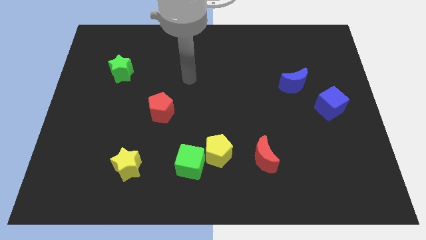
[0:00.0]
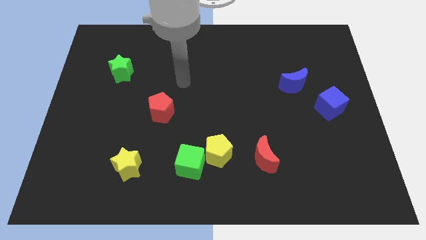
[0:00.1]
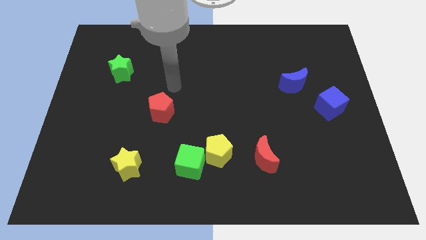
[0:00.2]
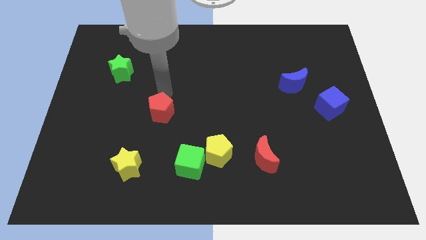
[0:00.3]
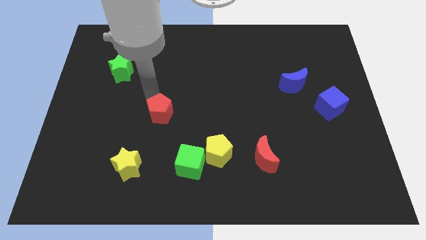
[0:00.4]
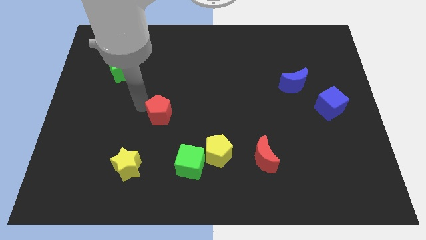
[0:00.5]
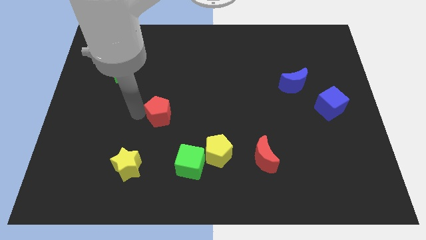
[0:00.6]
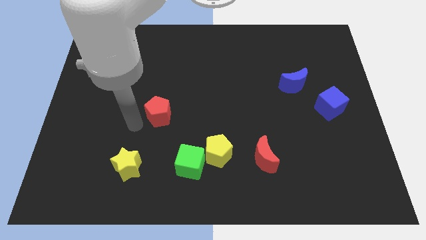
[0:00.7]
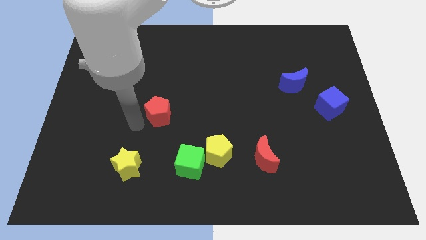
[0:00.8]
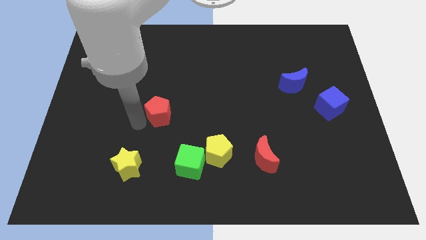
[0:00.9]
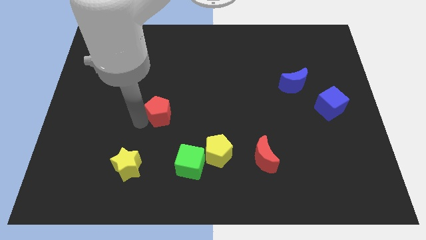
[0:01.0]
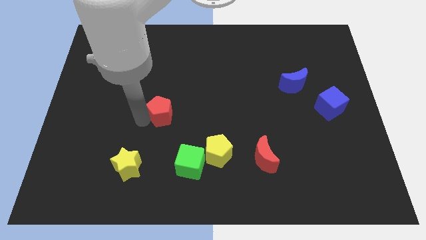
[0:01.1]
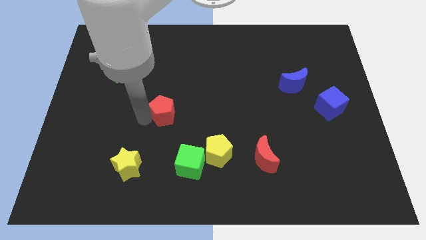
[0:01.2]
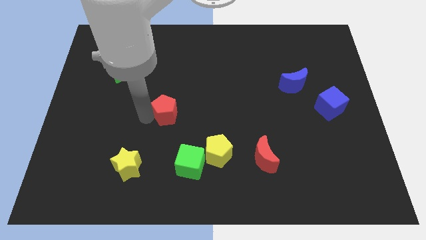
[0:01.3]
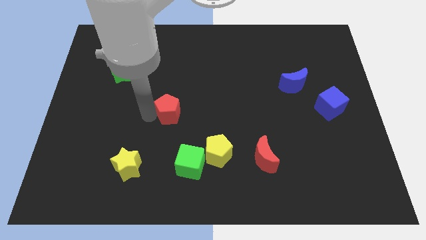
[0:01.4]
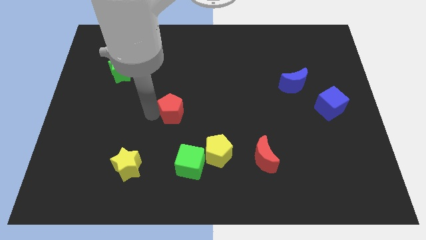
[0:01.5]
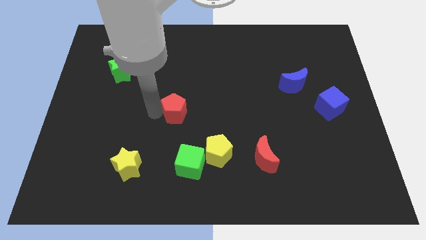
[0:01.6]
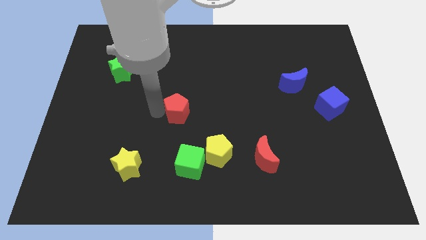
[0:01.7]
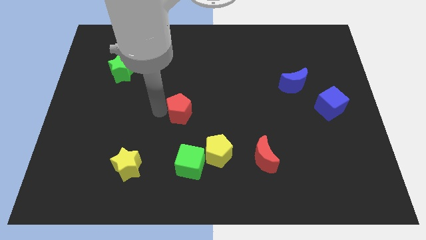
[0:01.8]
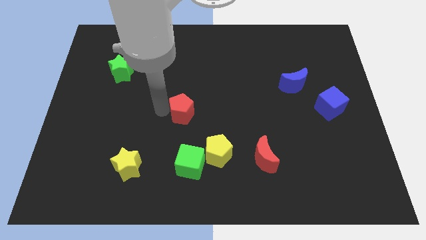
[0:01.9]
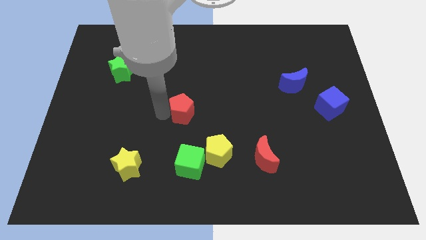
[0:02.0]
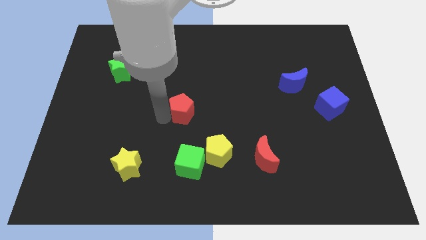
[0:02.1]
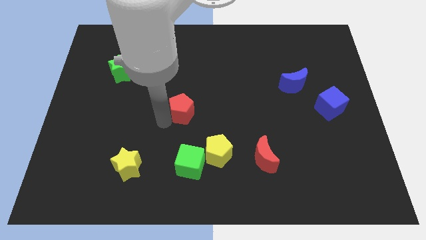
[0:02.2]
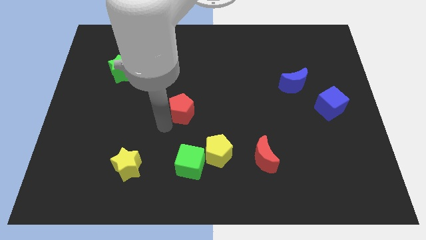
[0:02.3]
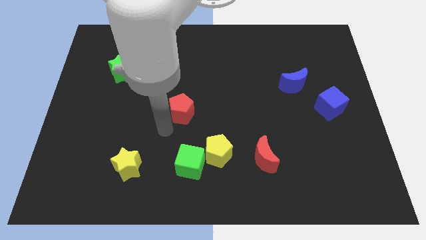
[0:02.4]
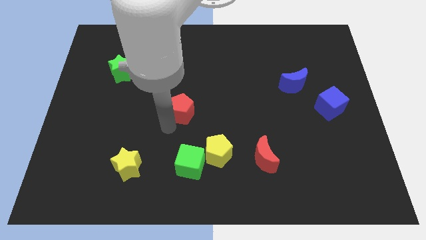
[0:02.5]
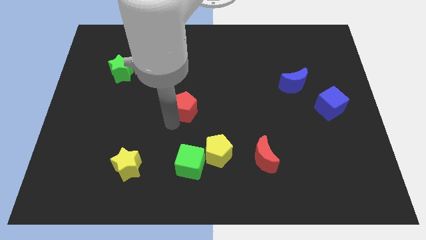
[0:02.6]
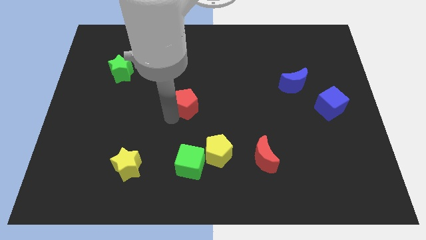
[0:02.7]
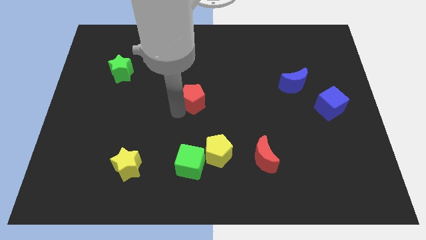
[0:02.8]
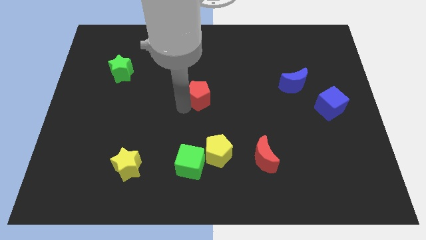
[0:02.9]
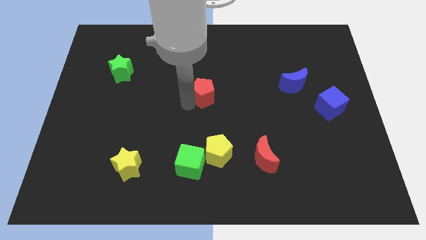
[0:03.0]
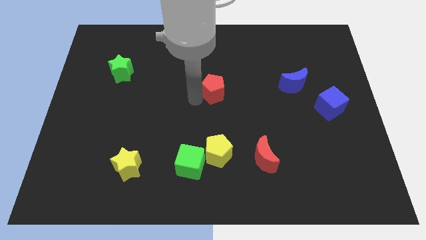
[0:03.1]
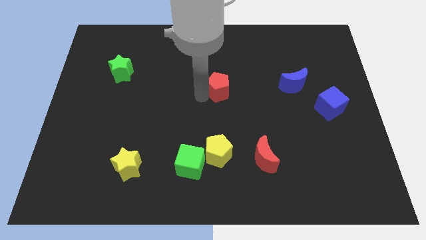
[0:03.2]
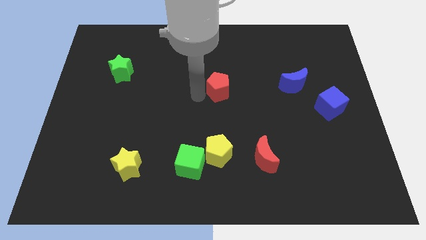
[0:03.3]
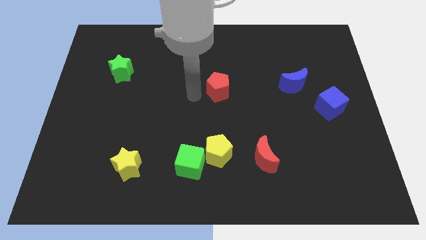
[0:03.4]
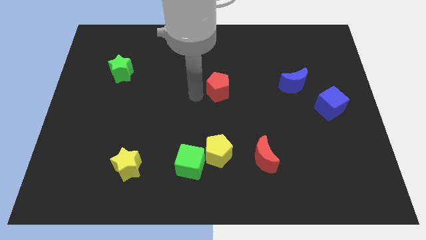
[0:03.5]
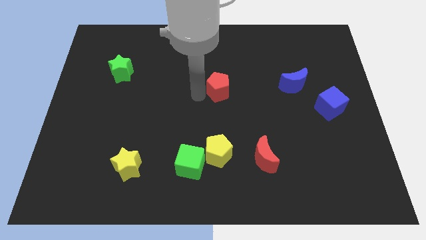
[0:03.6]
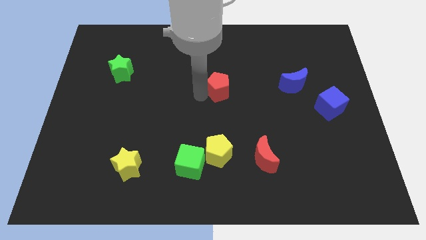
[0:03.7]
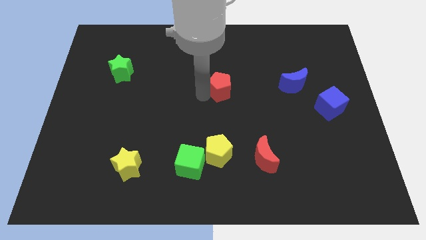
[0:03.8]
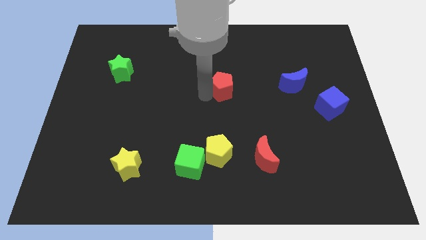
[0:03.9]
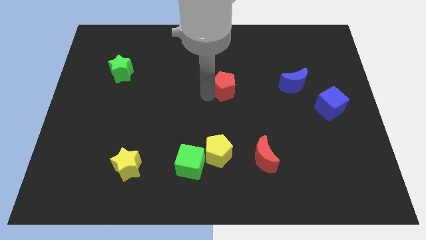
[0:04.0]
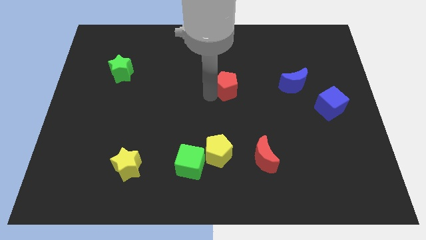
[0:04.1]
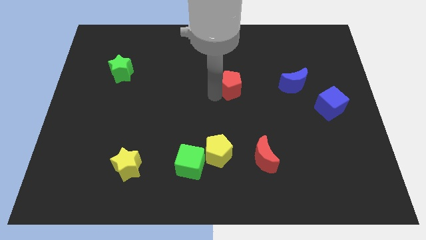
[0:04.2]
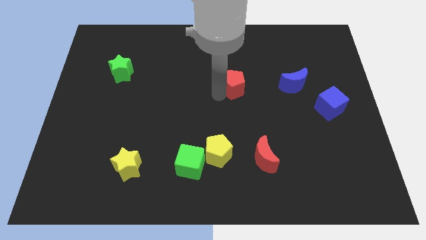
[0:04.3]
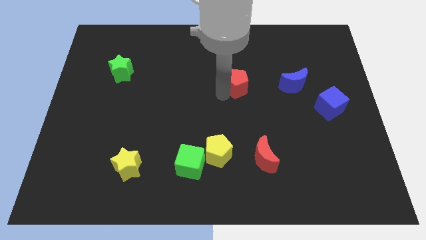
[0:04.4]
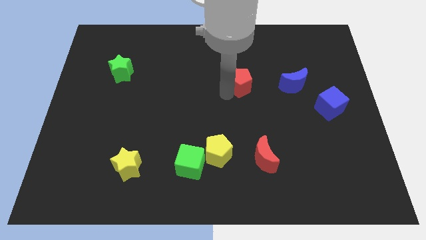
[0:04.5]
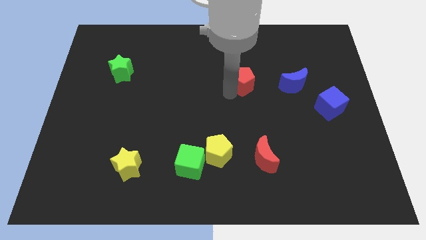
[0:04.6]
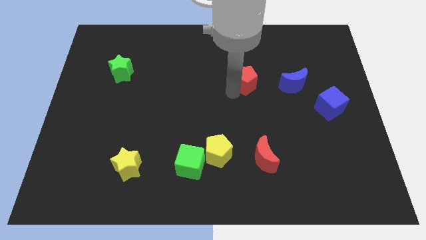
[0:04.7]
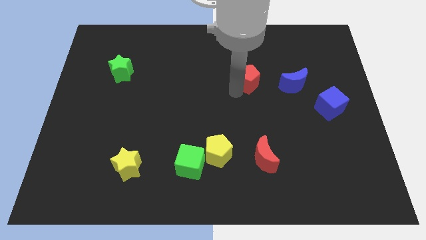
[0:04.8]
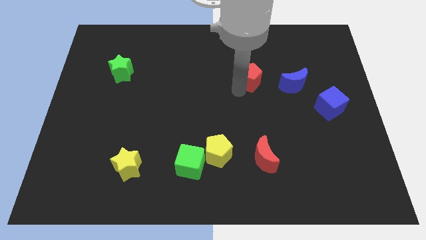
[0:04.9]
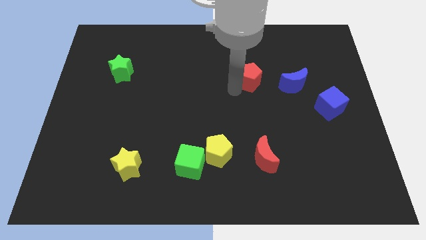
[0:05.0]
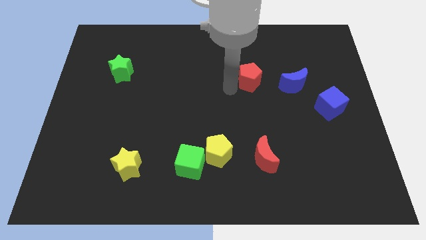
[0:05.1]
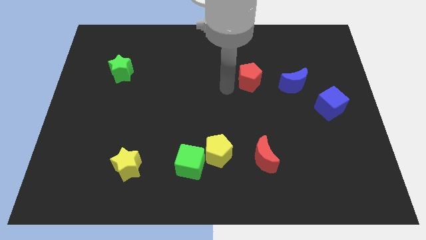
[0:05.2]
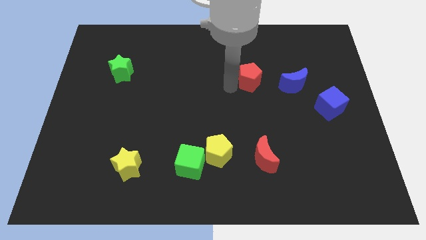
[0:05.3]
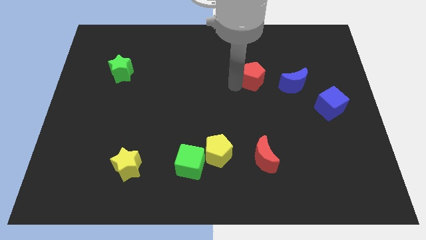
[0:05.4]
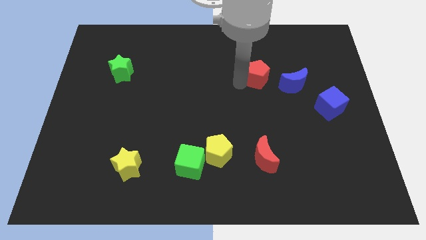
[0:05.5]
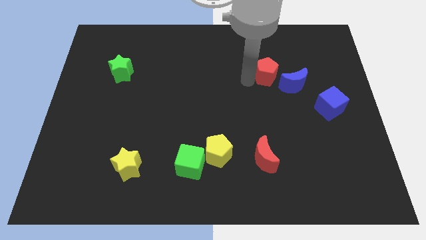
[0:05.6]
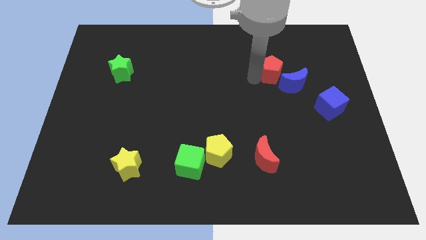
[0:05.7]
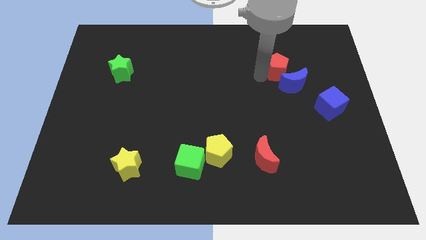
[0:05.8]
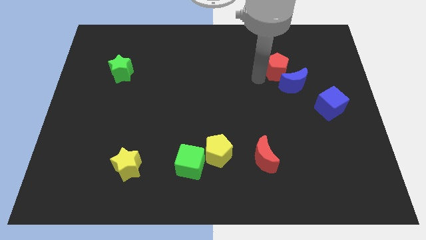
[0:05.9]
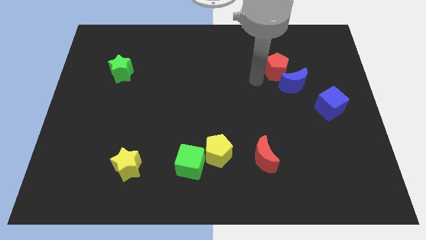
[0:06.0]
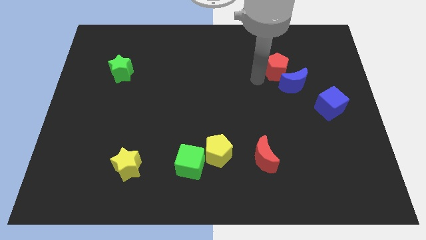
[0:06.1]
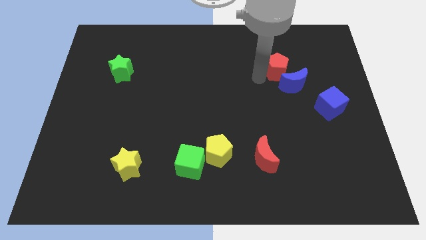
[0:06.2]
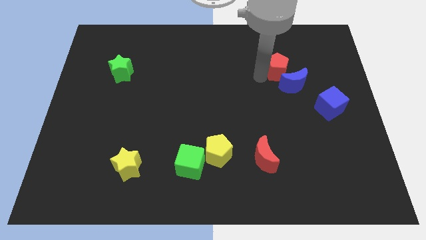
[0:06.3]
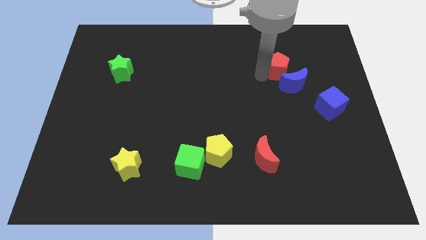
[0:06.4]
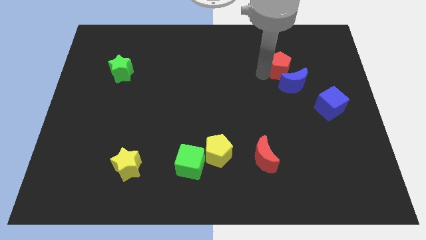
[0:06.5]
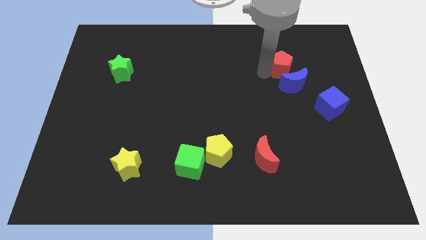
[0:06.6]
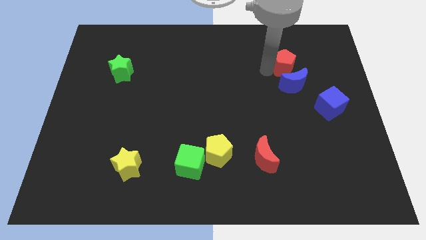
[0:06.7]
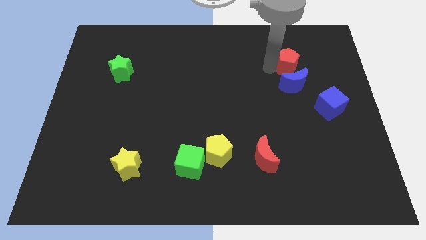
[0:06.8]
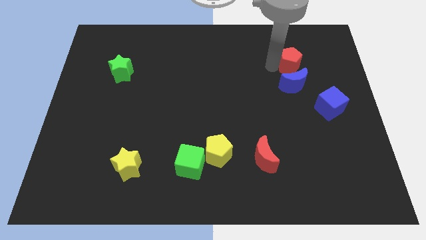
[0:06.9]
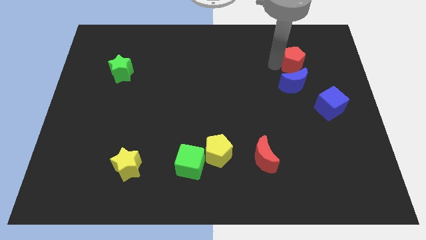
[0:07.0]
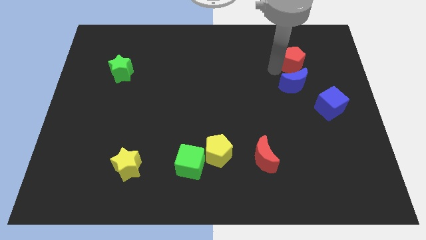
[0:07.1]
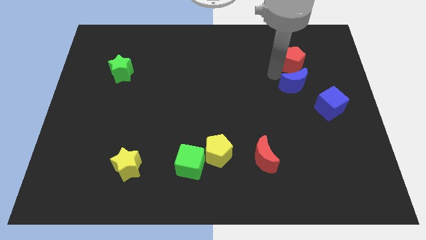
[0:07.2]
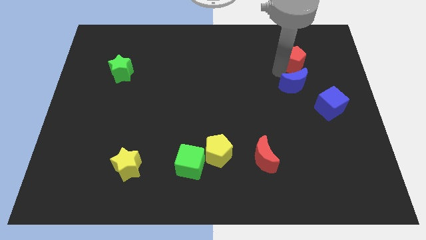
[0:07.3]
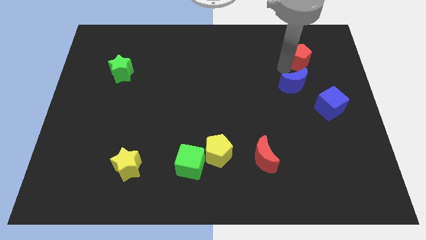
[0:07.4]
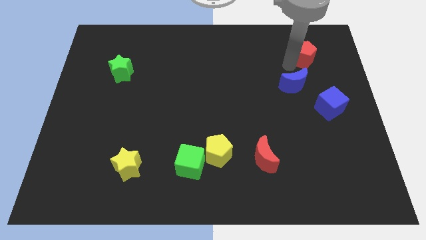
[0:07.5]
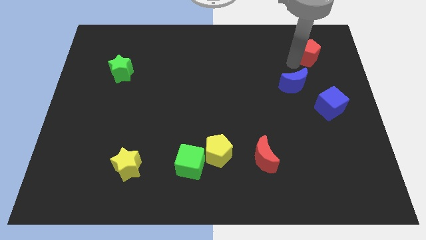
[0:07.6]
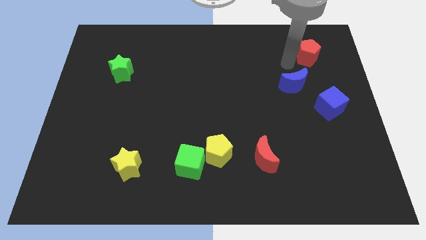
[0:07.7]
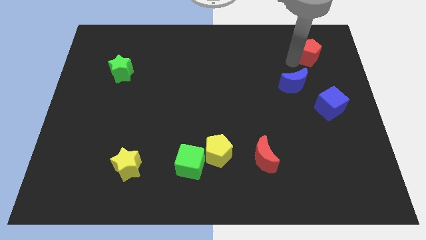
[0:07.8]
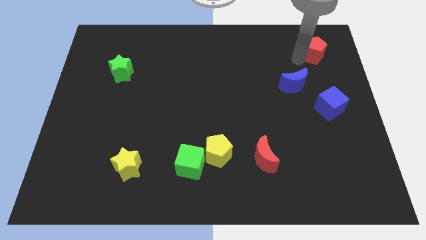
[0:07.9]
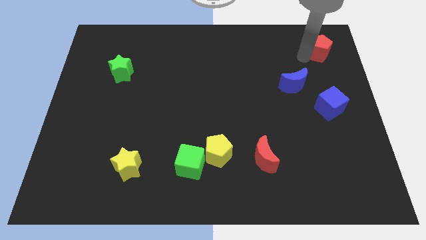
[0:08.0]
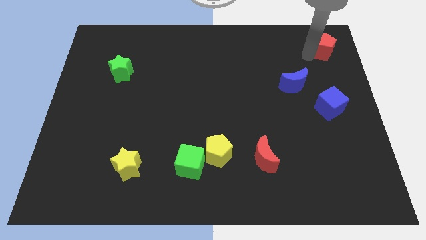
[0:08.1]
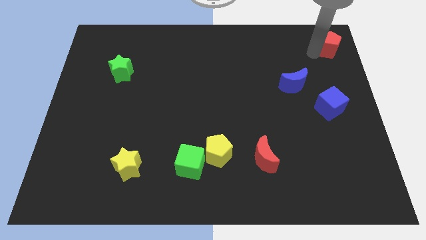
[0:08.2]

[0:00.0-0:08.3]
put the red pentagon to the upper right corner
